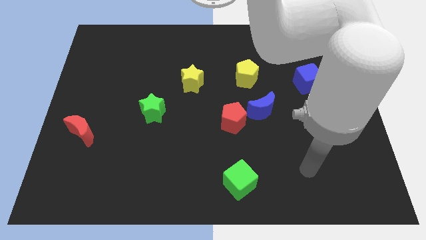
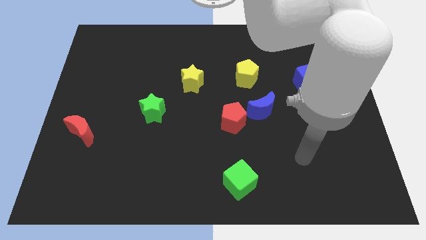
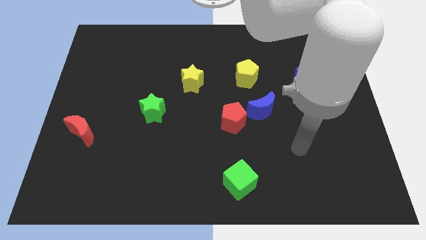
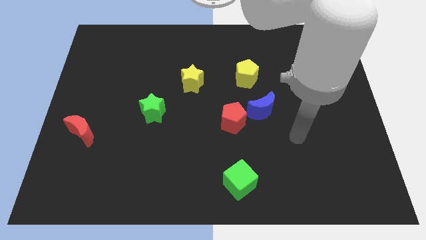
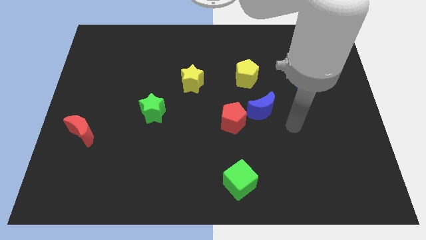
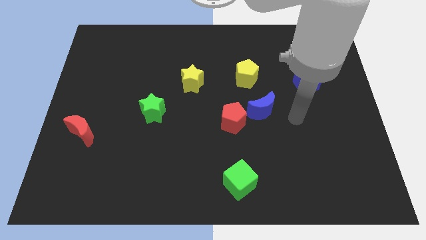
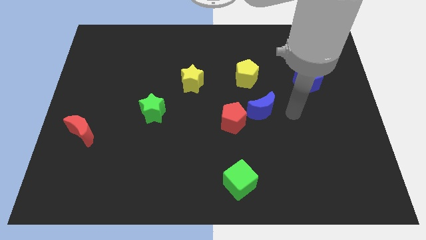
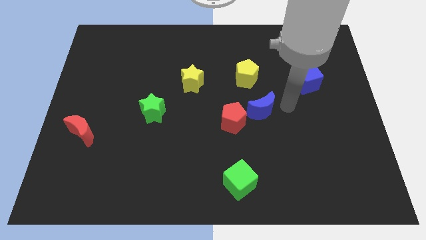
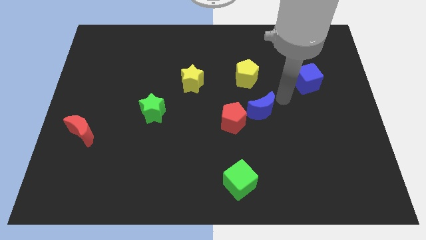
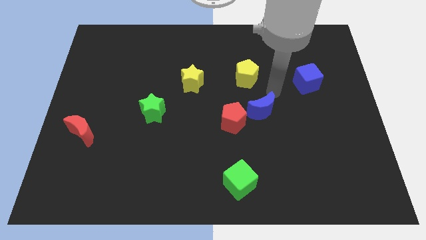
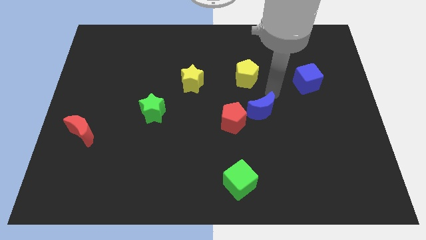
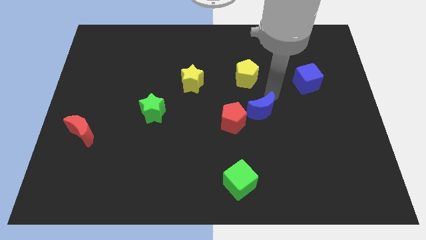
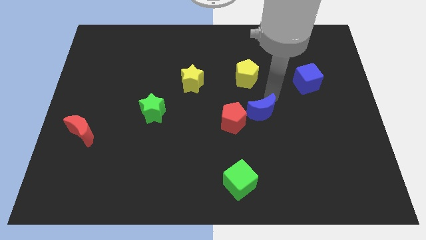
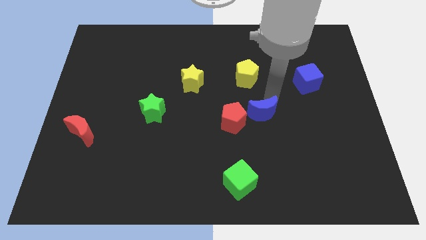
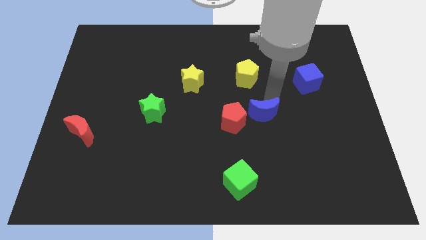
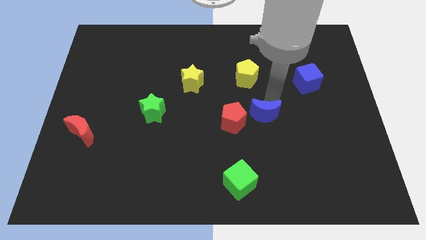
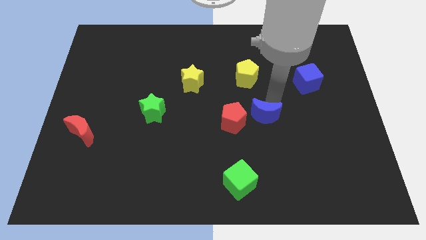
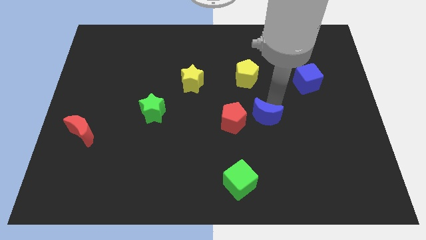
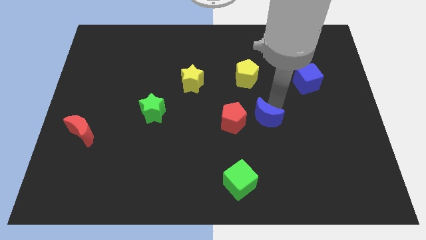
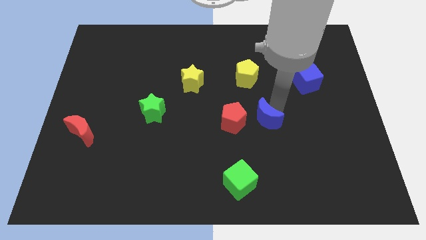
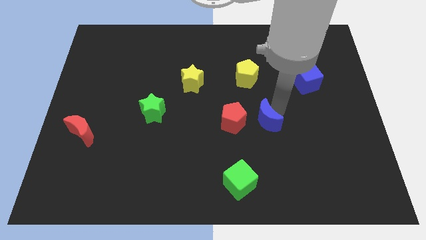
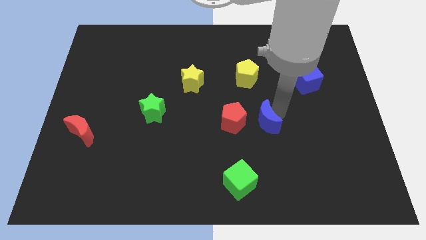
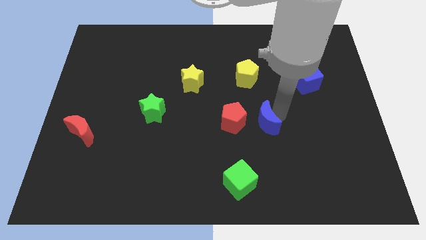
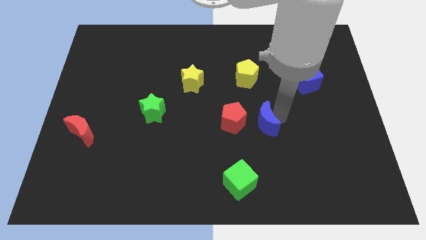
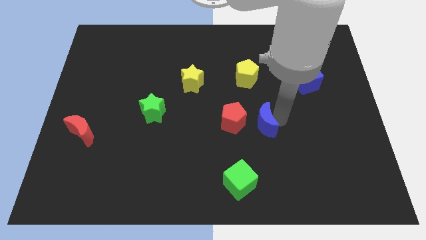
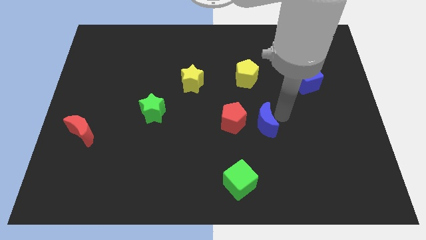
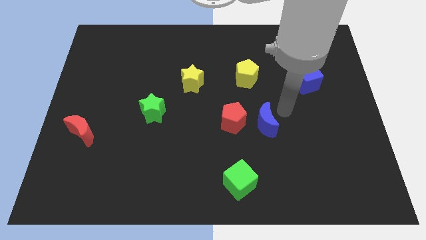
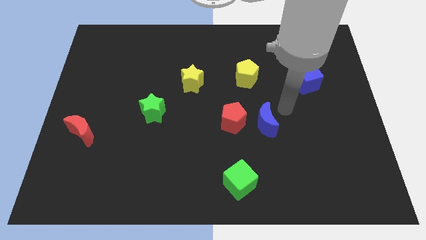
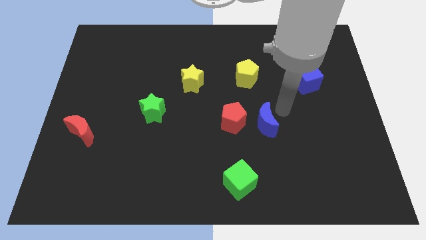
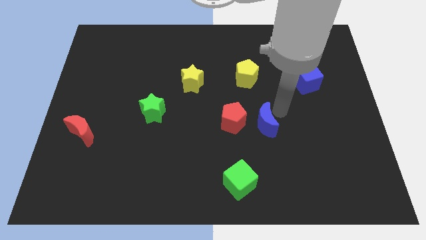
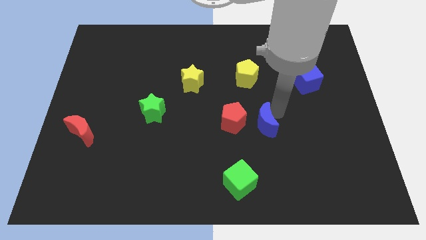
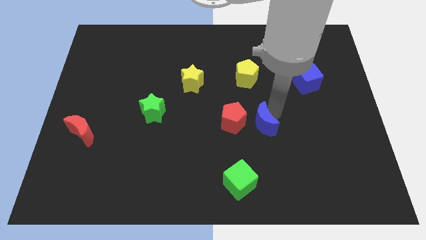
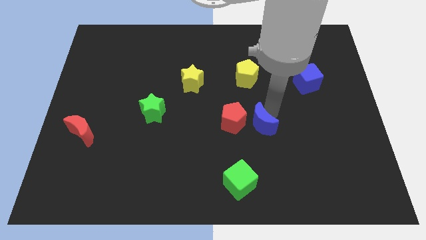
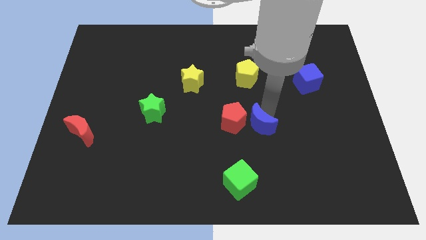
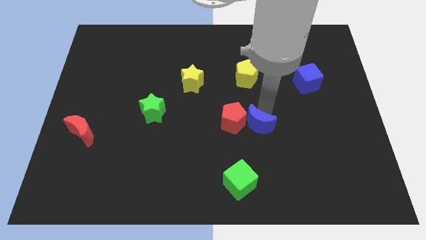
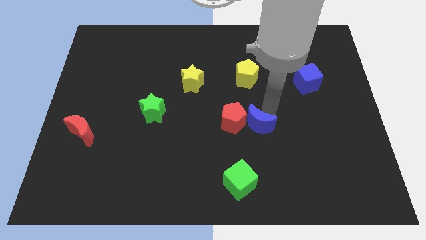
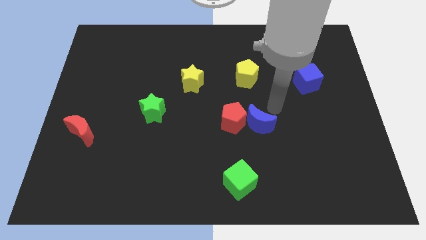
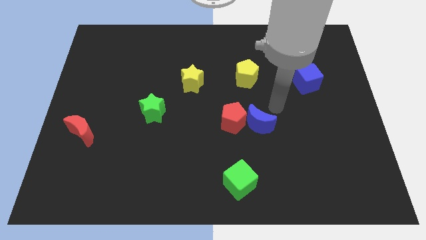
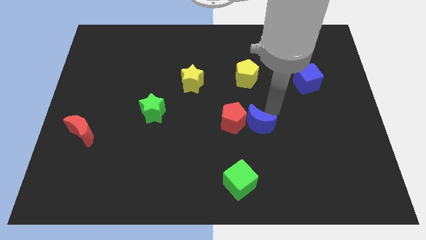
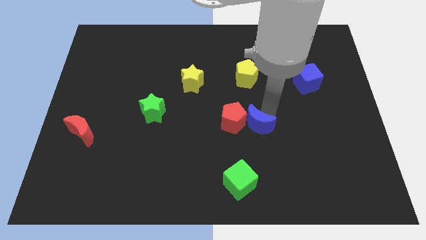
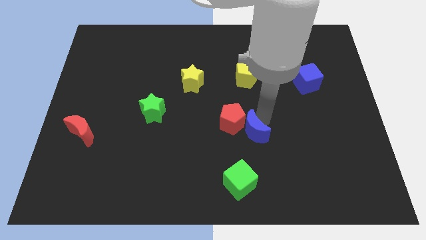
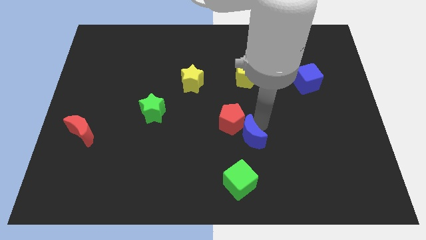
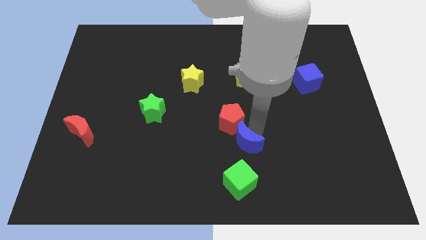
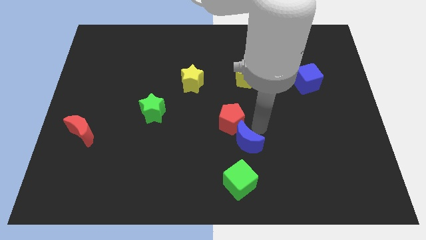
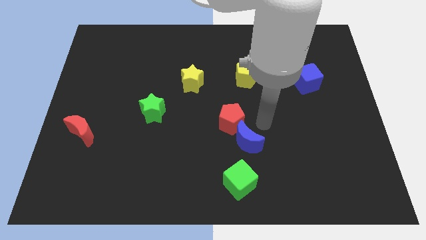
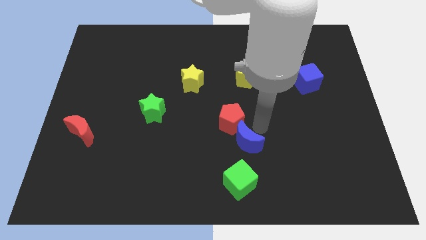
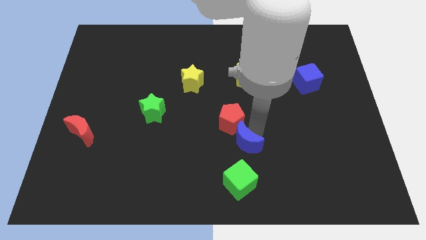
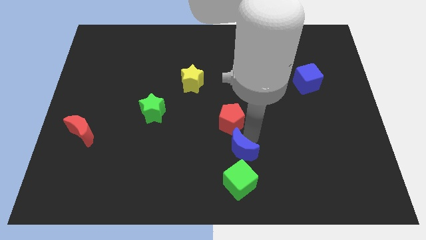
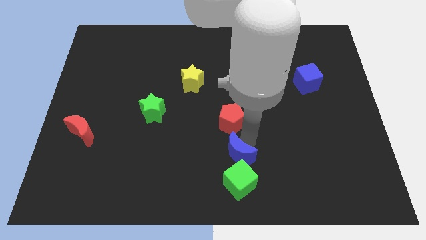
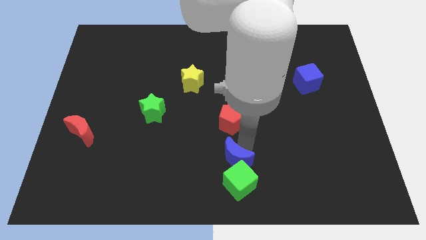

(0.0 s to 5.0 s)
slide the blue moon to the bottom

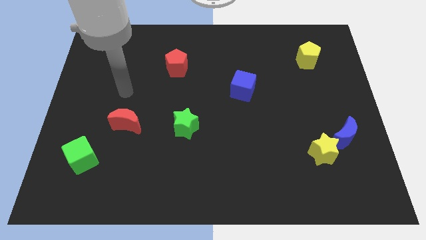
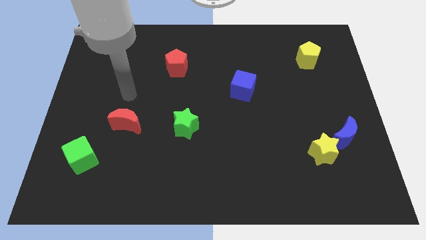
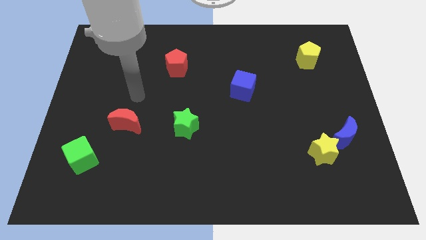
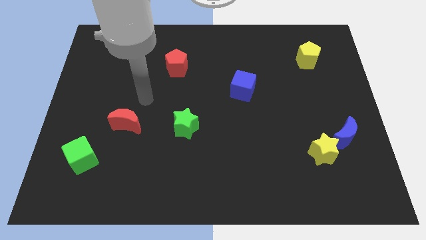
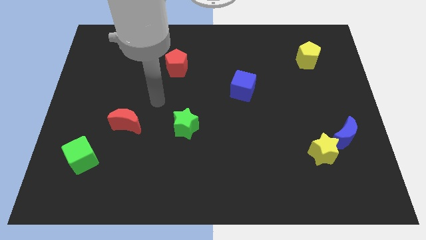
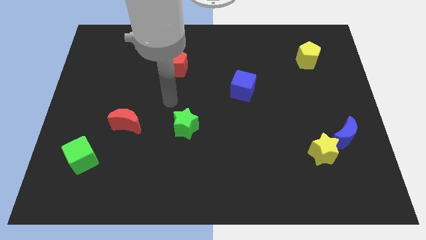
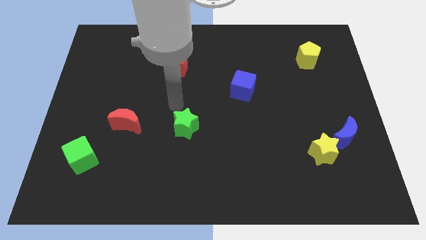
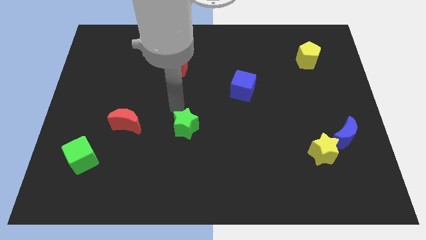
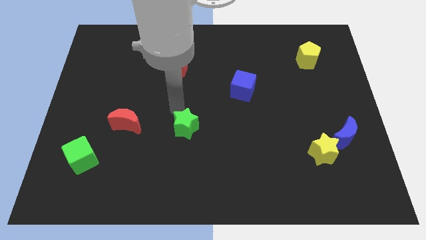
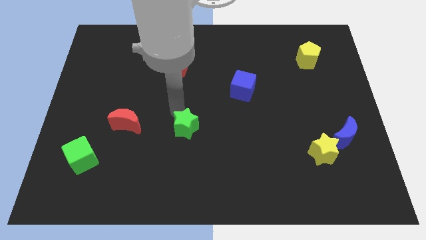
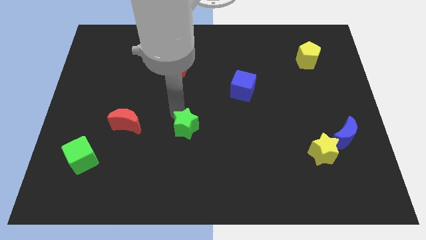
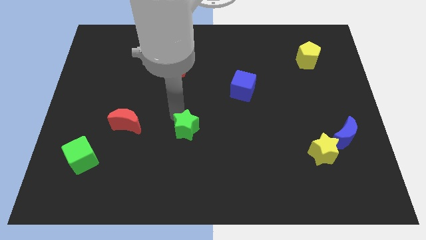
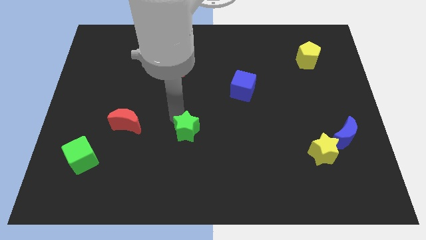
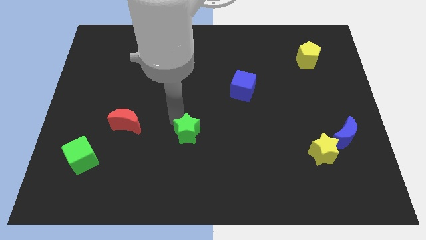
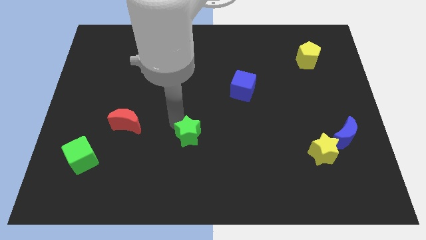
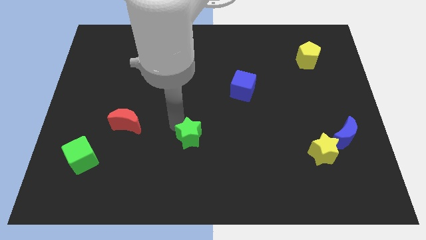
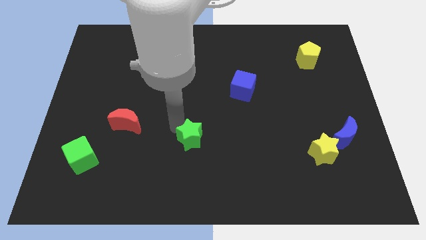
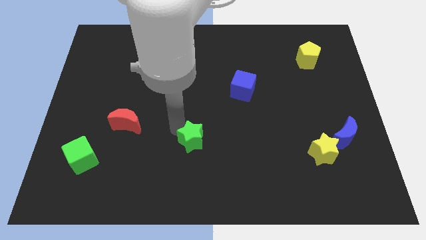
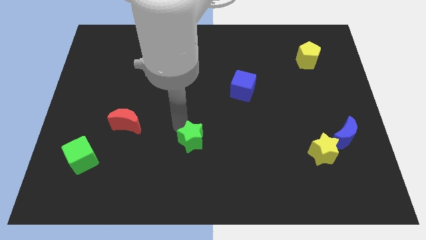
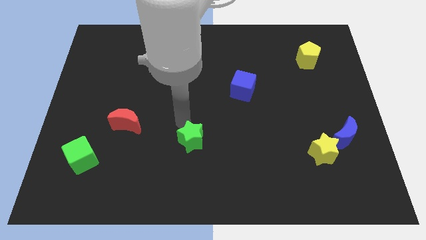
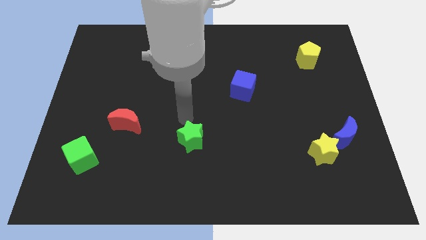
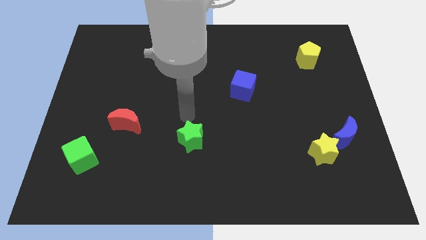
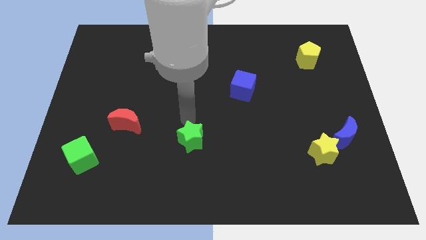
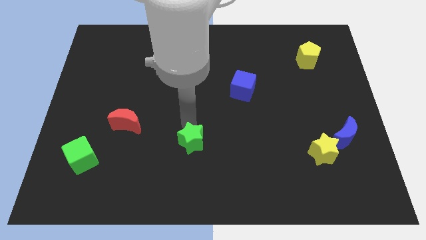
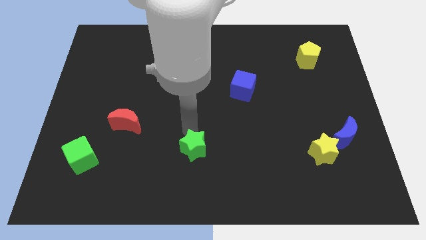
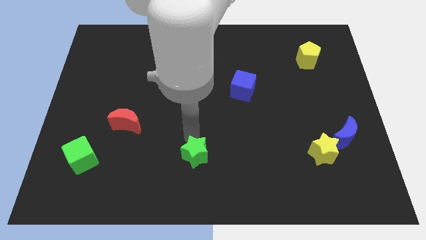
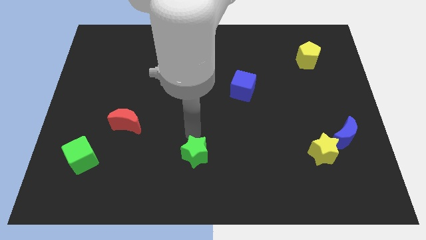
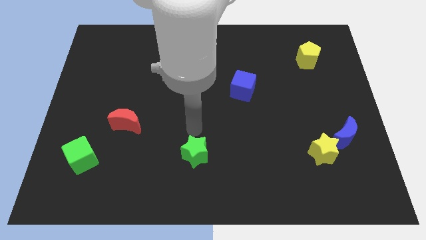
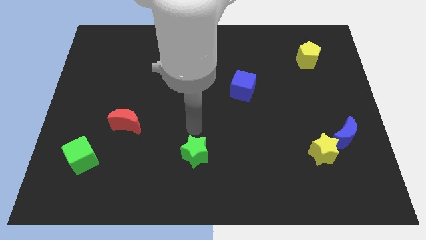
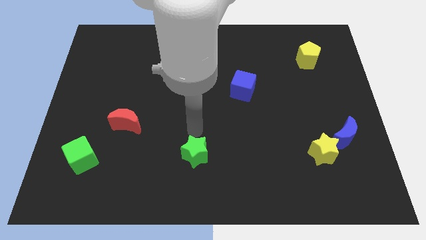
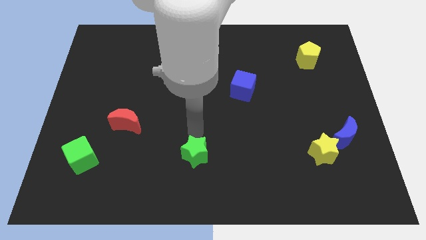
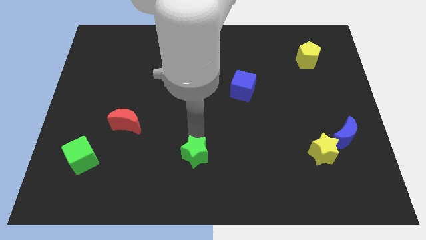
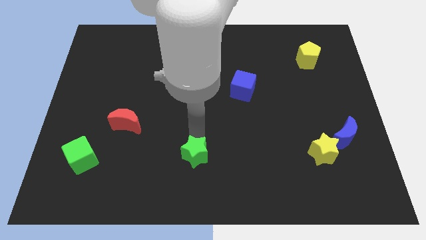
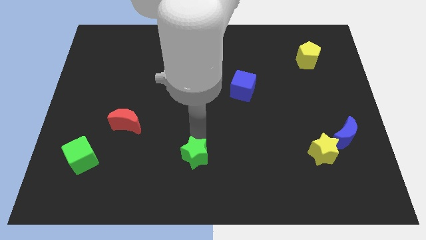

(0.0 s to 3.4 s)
put the green star to the bottom side
